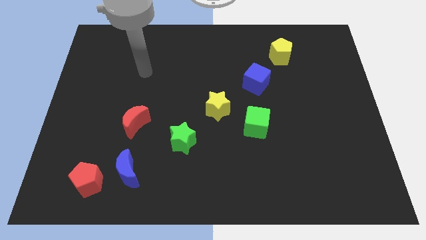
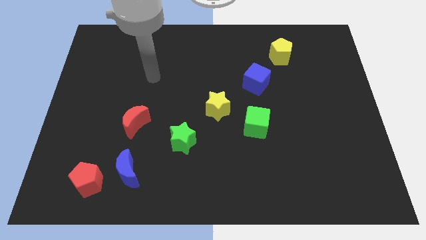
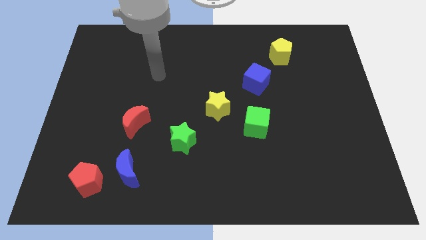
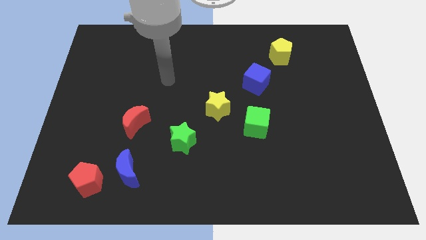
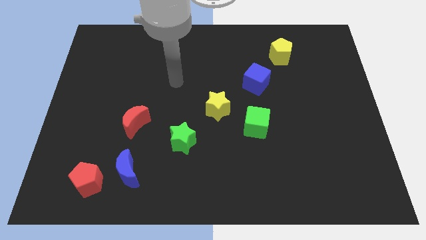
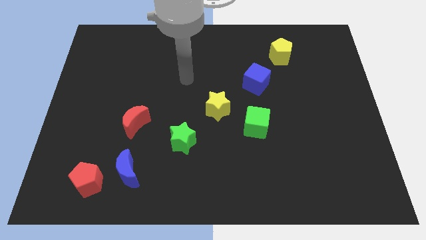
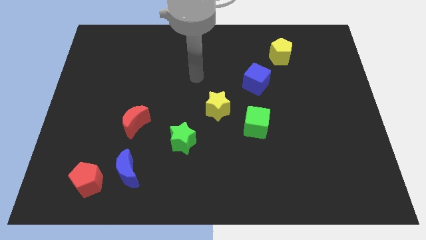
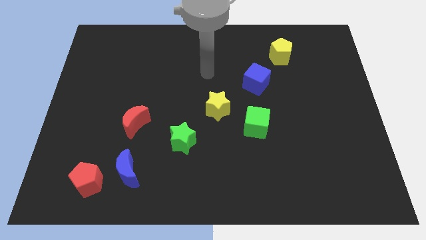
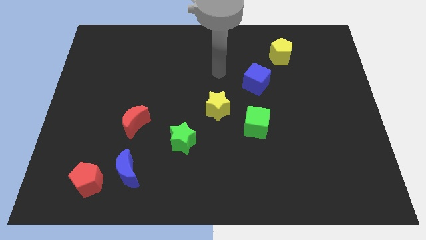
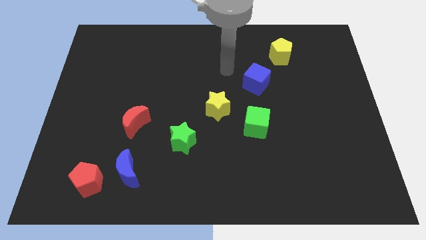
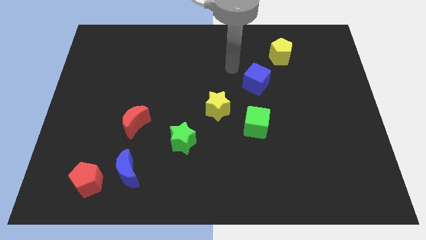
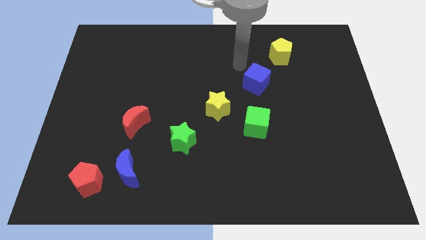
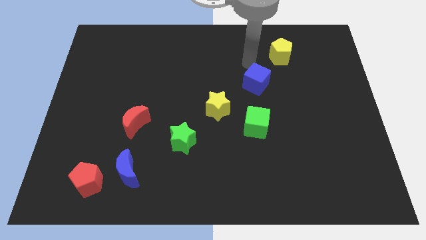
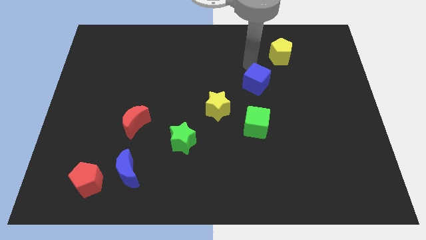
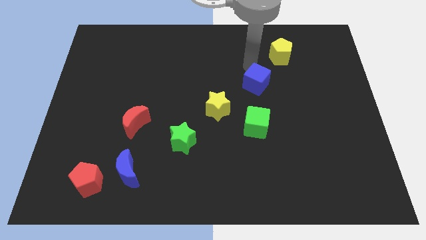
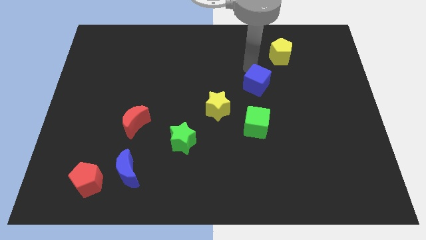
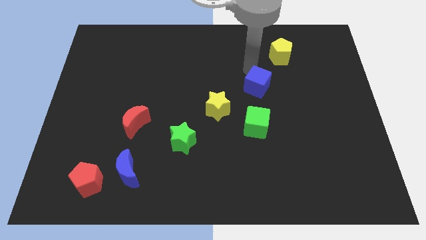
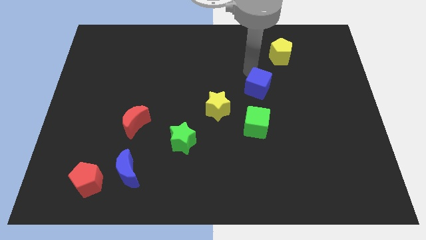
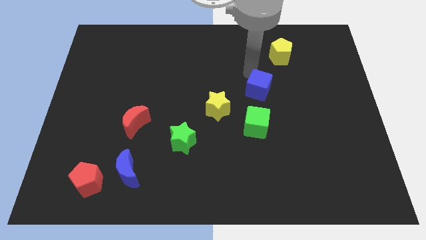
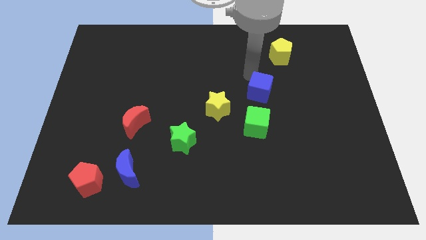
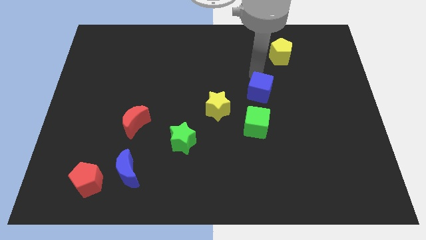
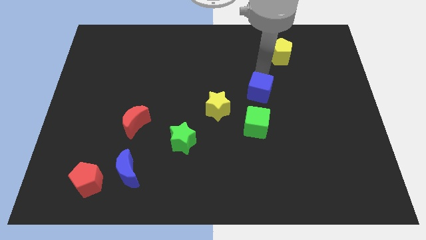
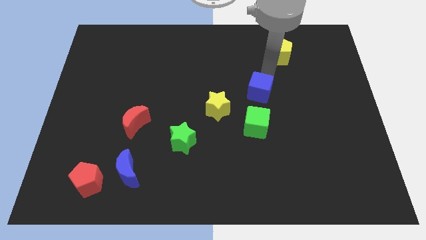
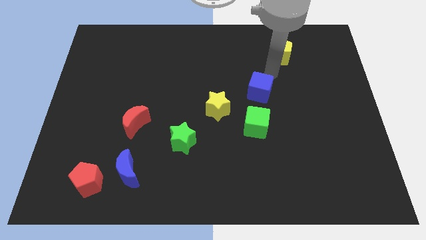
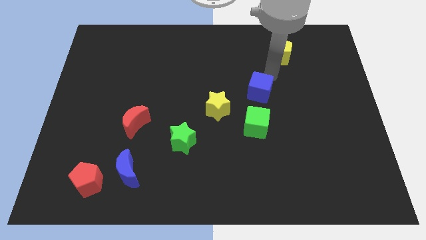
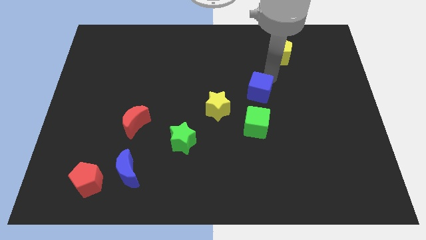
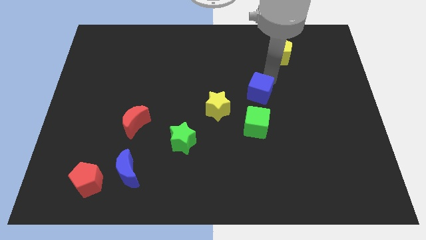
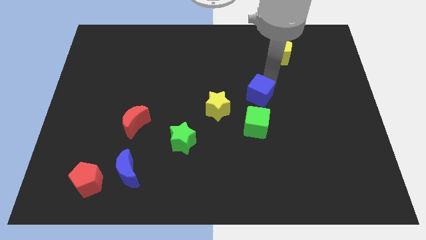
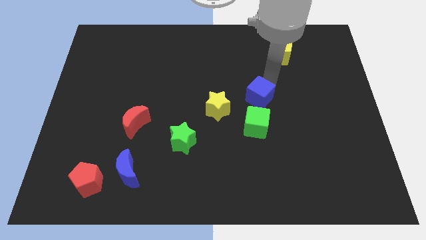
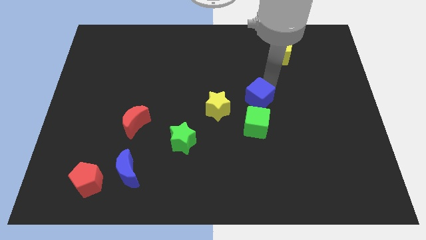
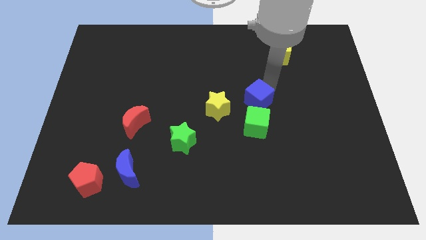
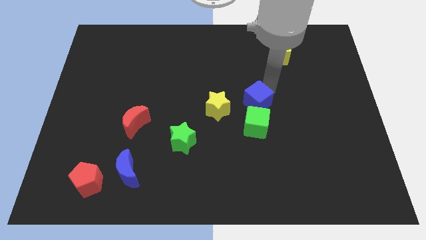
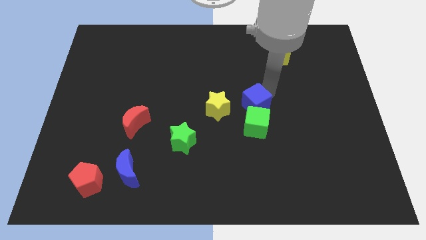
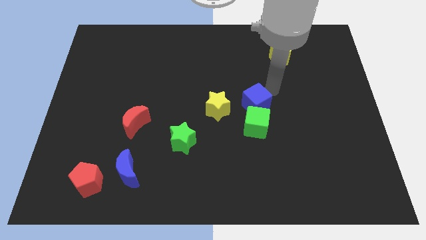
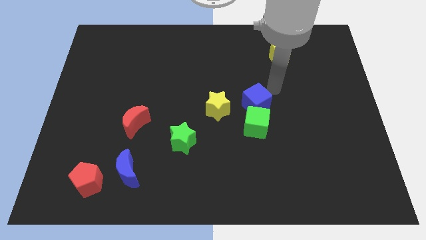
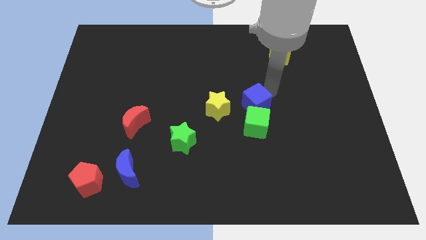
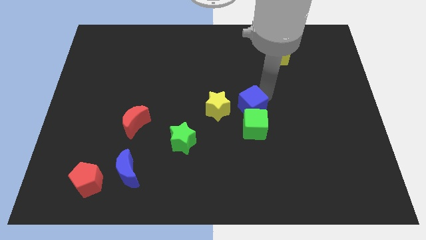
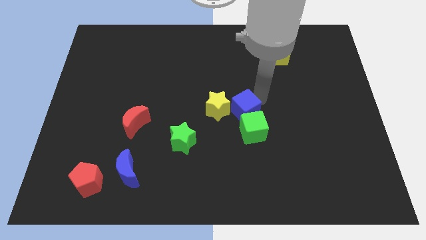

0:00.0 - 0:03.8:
slightly move the blue cube down and left diagonally

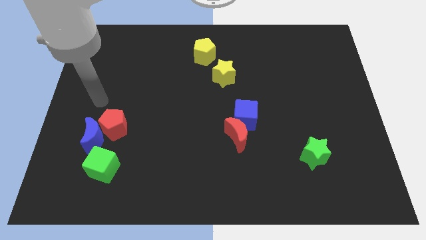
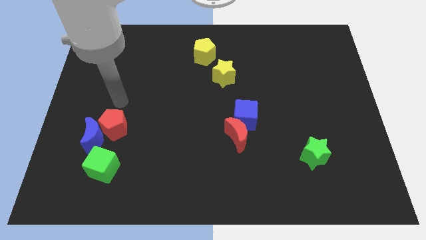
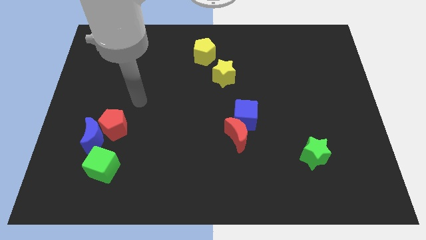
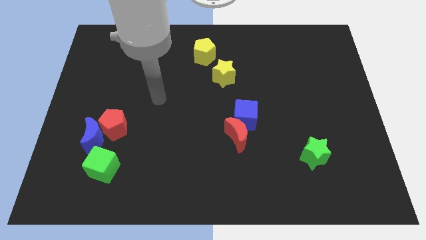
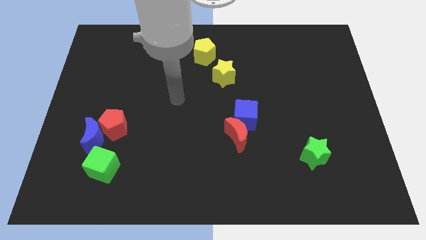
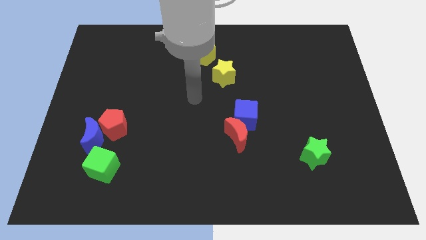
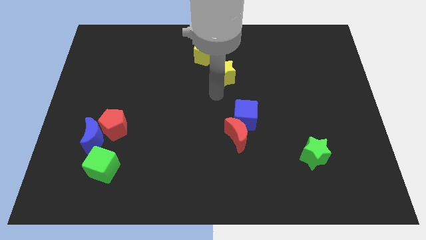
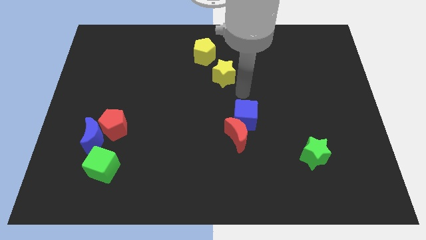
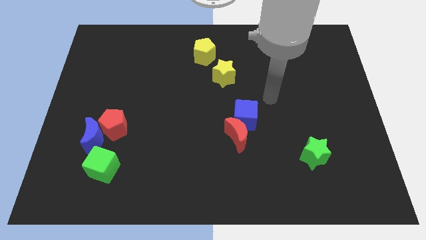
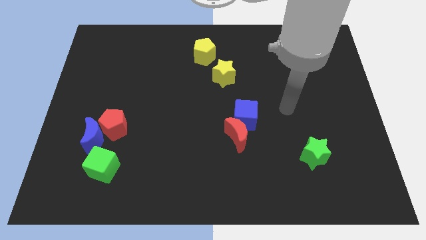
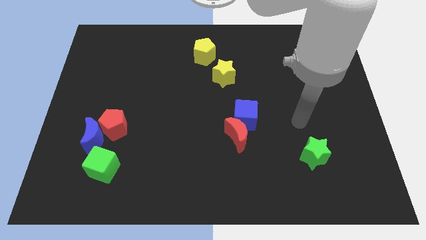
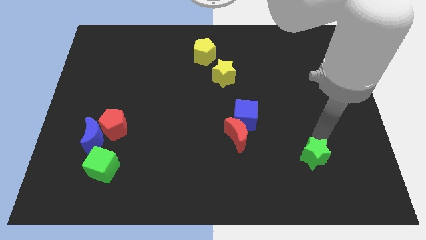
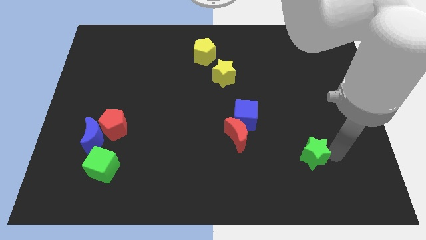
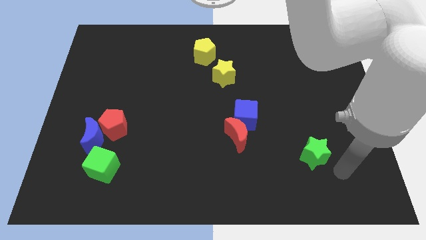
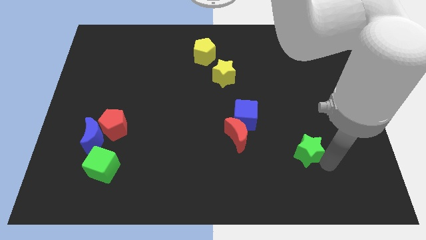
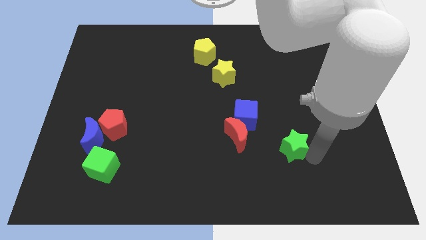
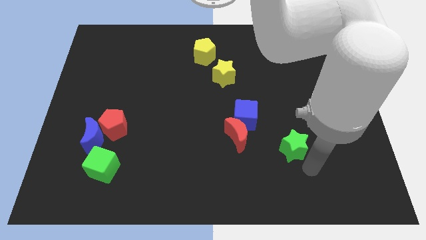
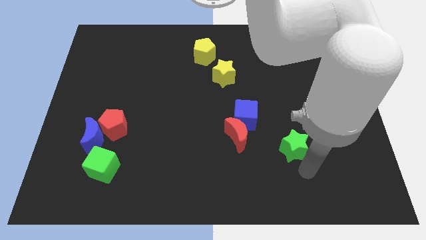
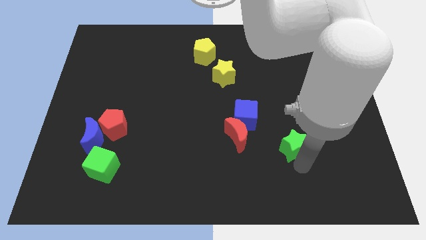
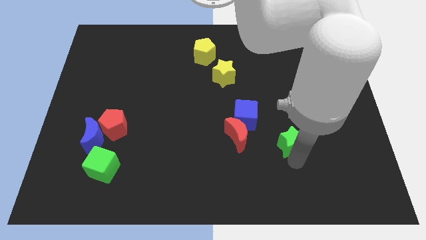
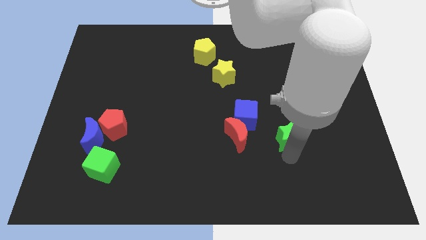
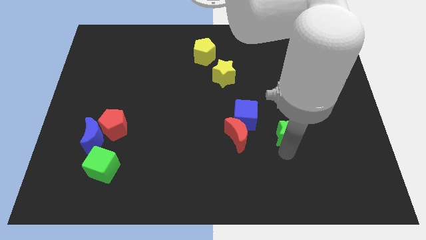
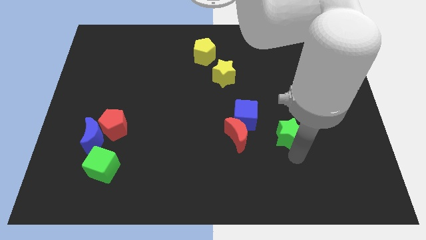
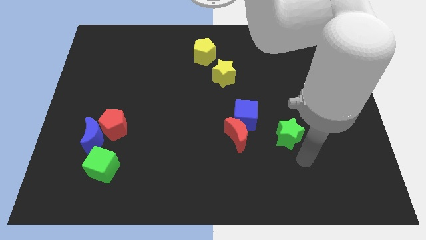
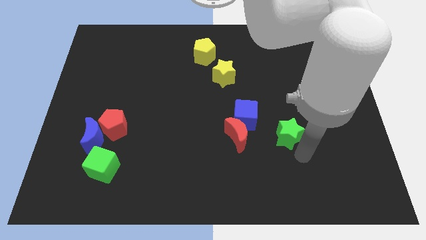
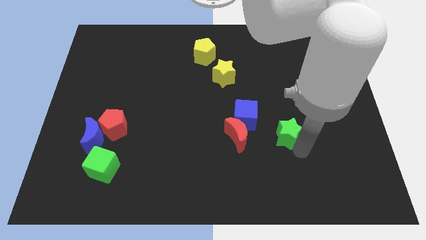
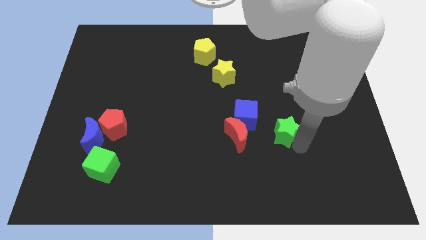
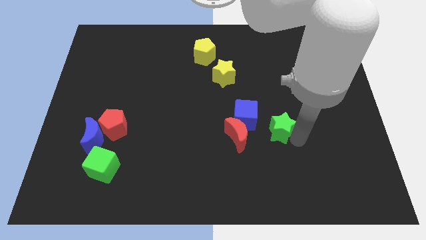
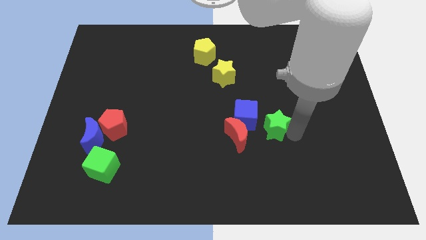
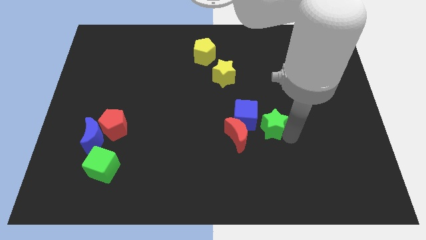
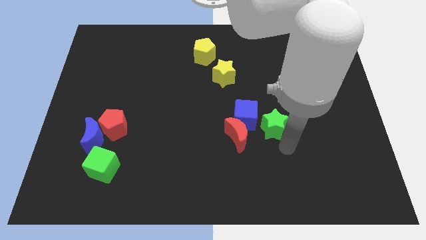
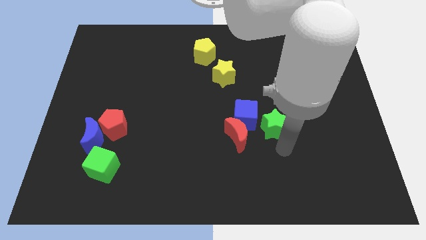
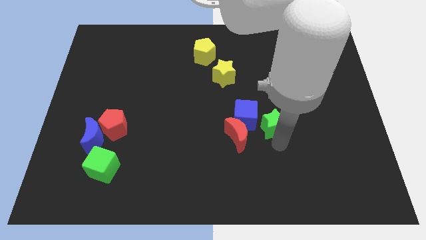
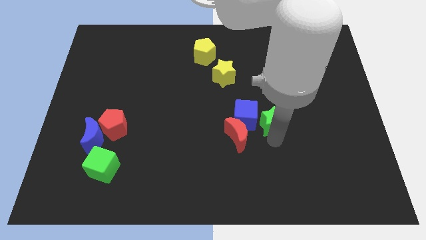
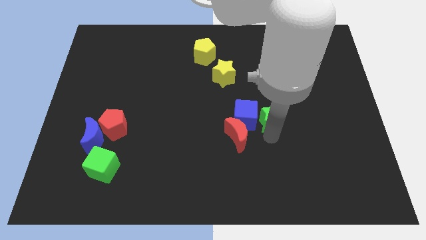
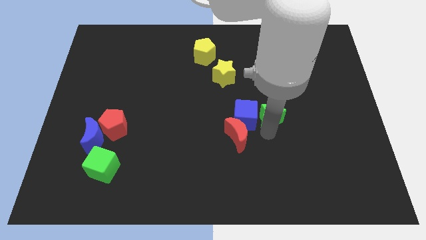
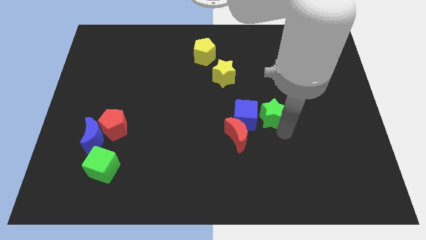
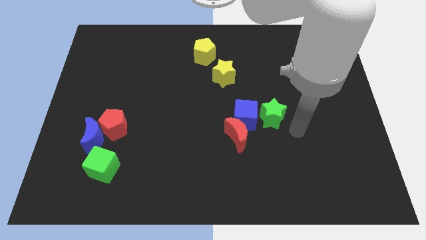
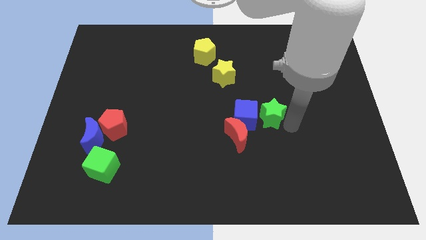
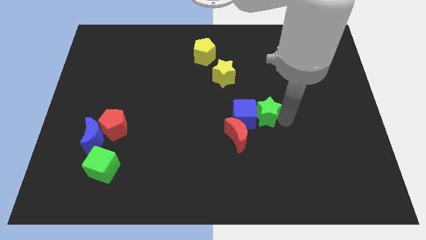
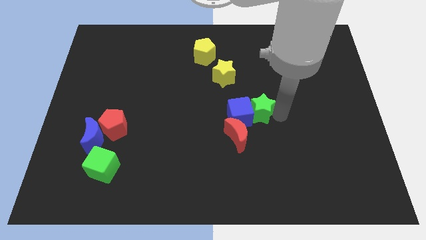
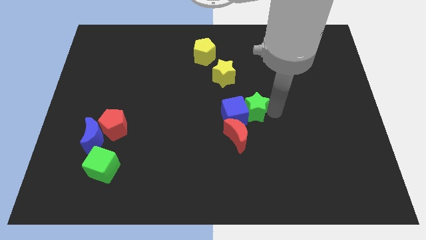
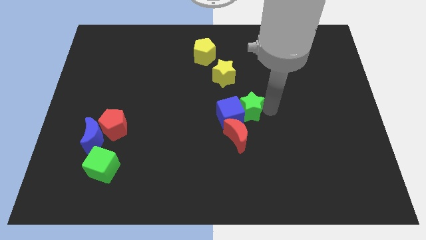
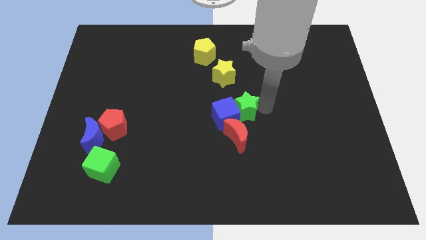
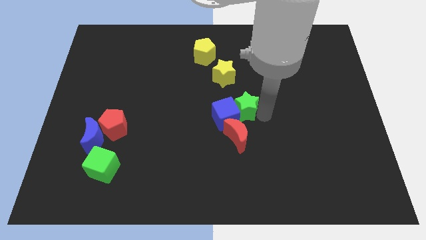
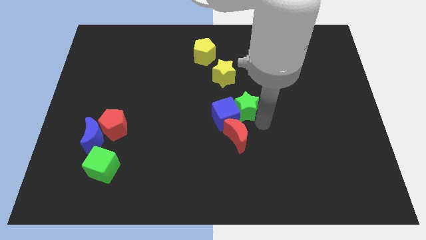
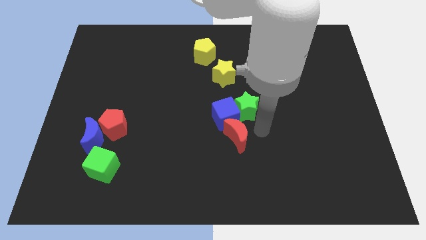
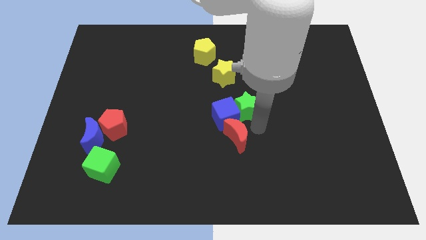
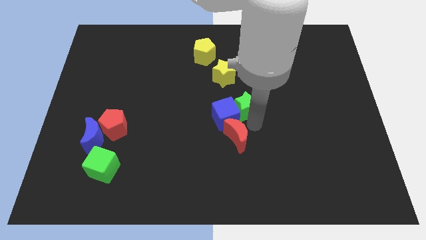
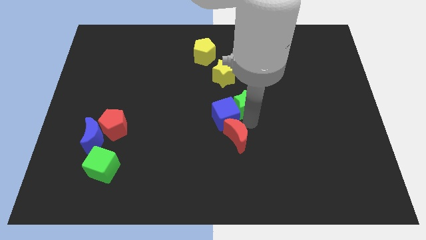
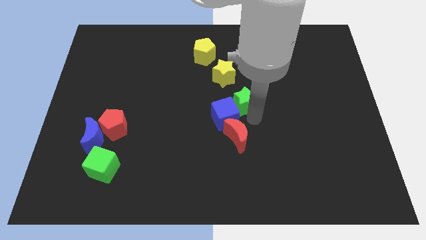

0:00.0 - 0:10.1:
move the green star upwards and then left
